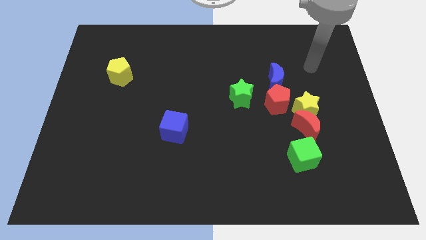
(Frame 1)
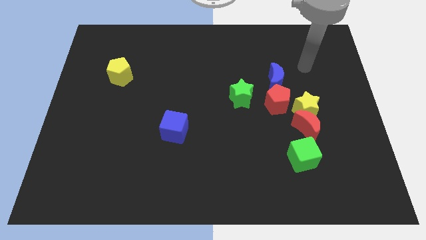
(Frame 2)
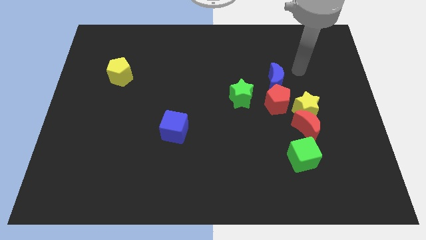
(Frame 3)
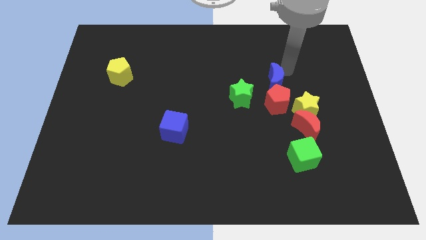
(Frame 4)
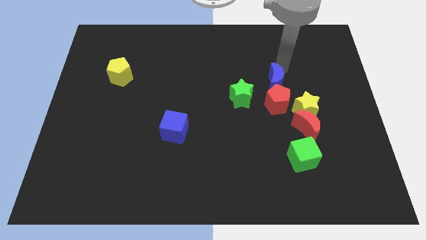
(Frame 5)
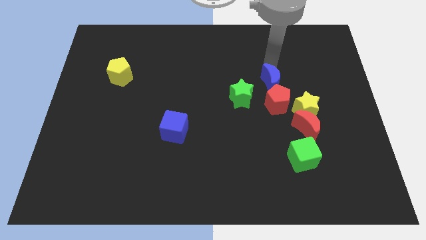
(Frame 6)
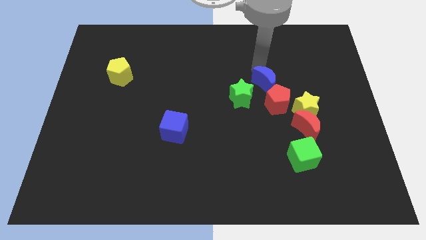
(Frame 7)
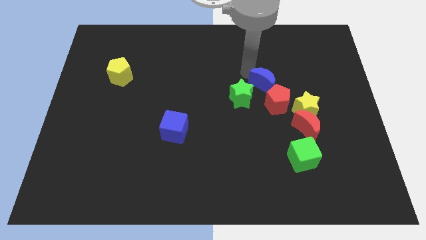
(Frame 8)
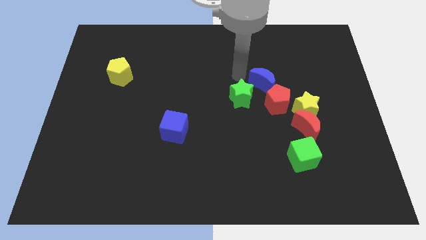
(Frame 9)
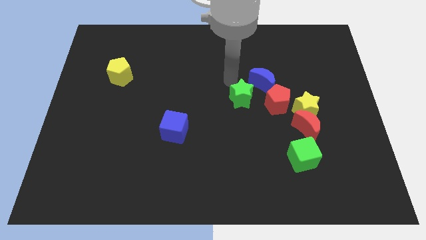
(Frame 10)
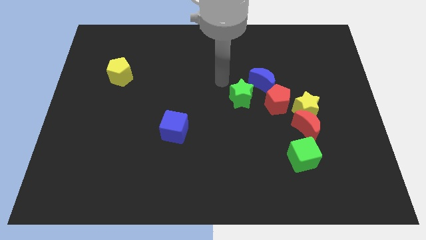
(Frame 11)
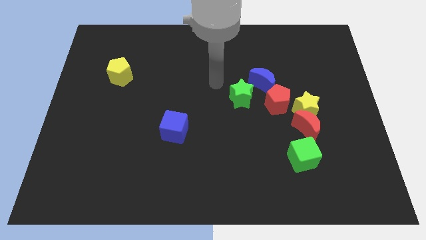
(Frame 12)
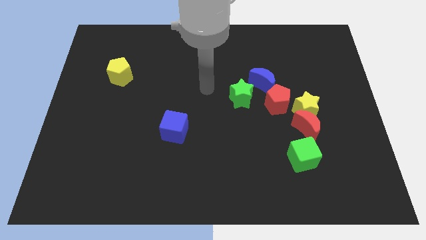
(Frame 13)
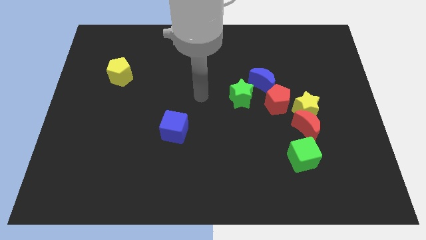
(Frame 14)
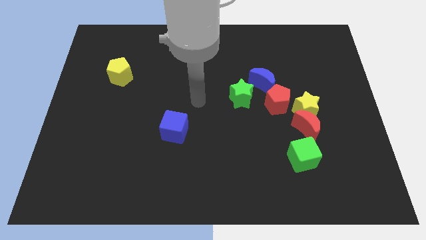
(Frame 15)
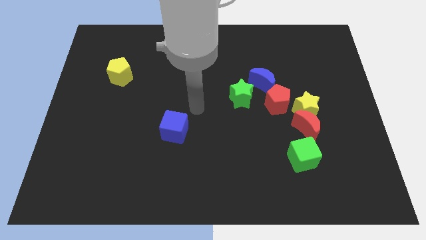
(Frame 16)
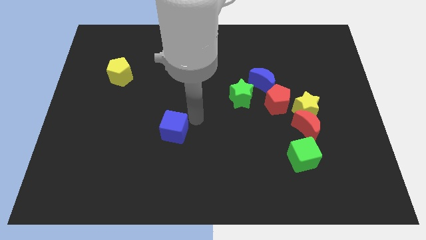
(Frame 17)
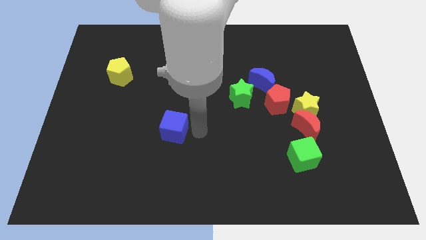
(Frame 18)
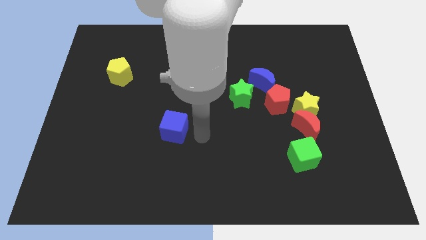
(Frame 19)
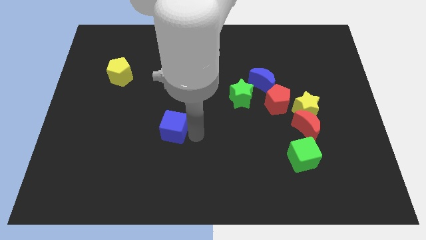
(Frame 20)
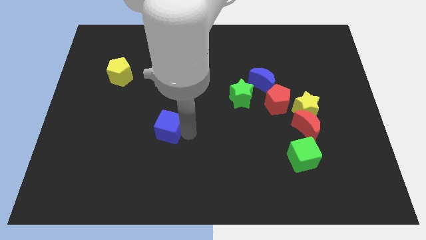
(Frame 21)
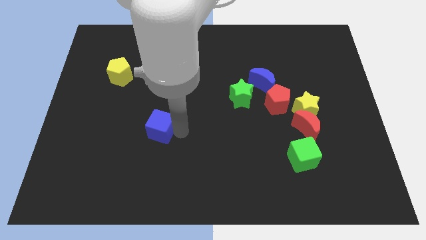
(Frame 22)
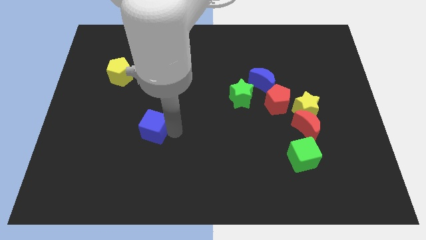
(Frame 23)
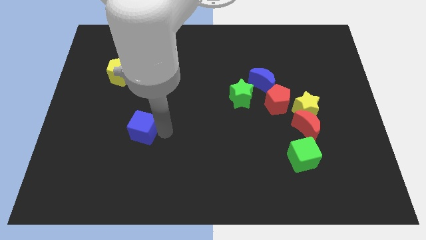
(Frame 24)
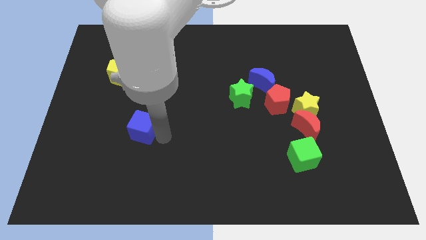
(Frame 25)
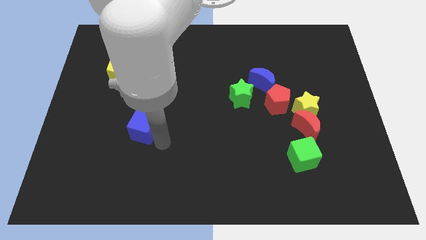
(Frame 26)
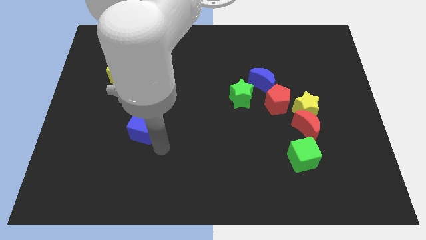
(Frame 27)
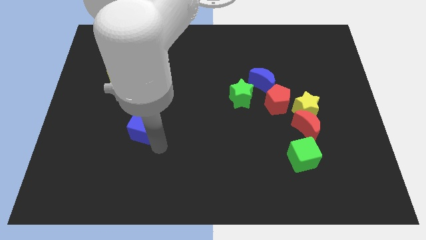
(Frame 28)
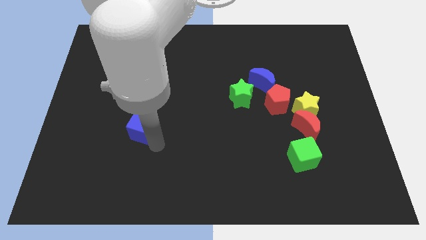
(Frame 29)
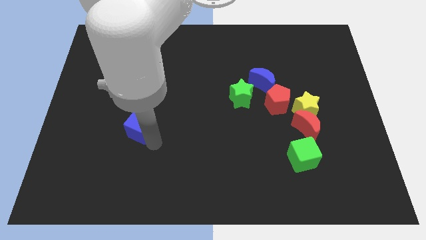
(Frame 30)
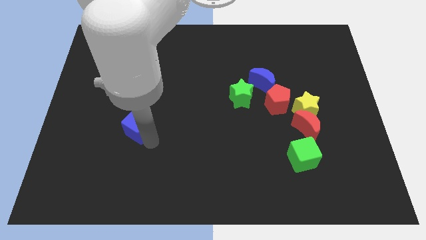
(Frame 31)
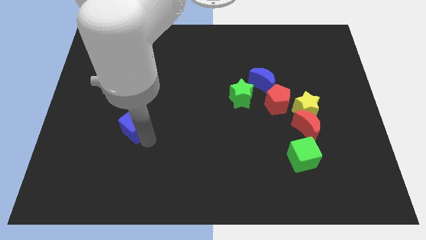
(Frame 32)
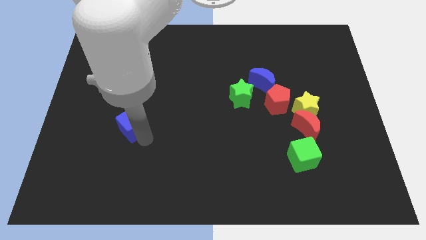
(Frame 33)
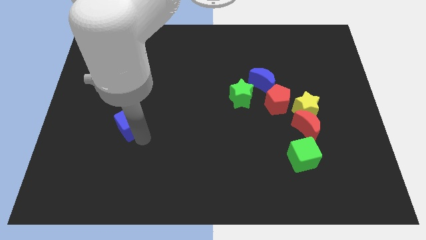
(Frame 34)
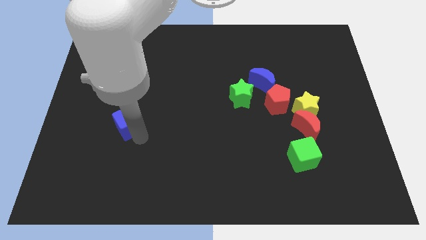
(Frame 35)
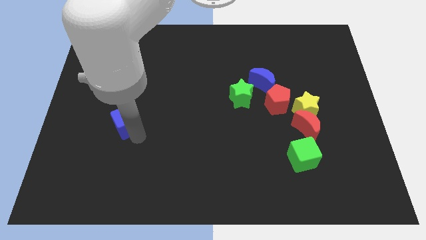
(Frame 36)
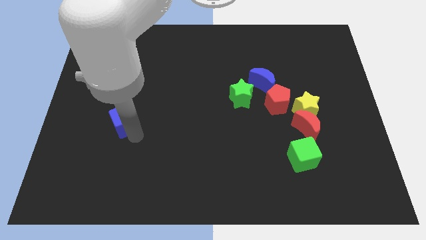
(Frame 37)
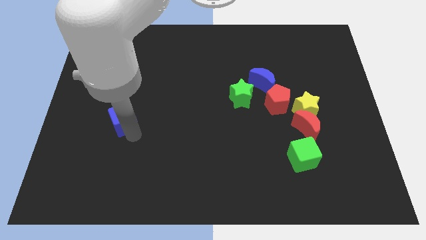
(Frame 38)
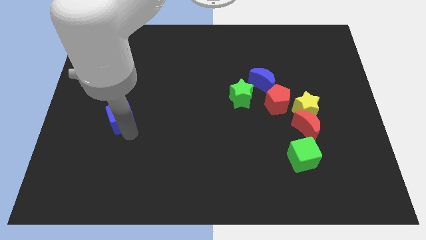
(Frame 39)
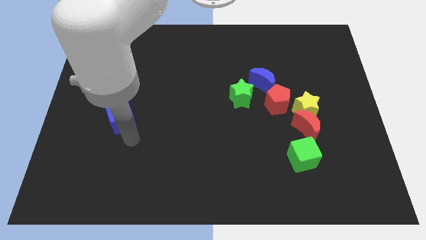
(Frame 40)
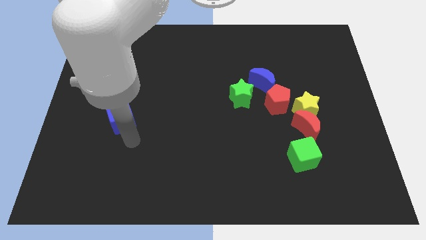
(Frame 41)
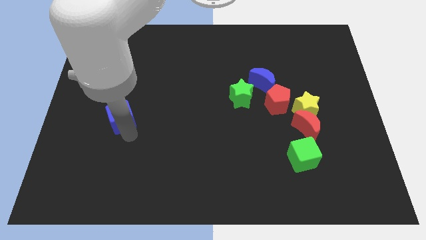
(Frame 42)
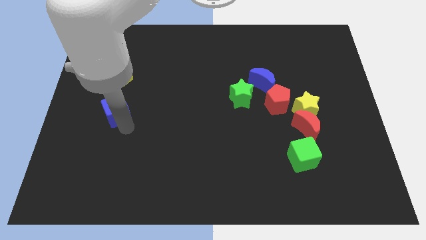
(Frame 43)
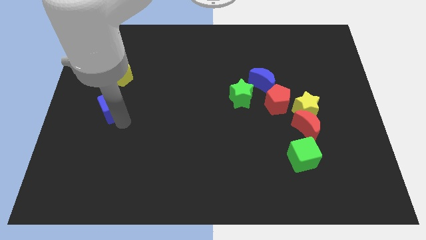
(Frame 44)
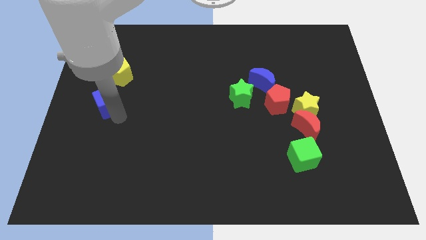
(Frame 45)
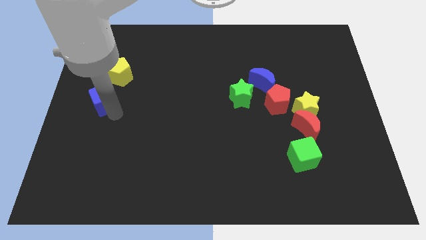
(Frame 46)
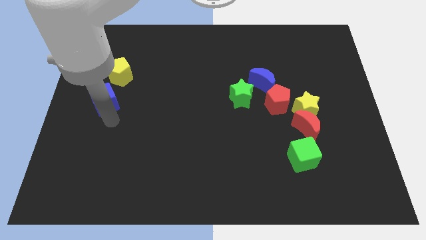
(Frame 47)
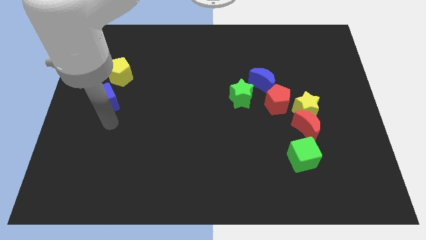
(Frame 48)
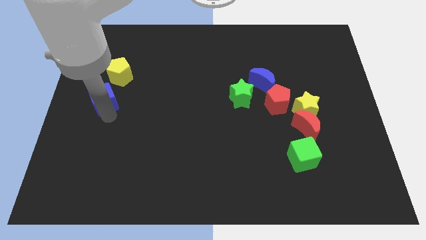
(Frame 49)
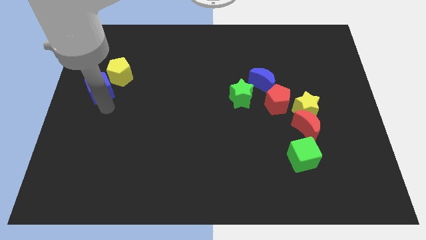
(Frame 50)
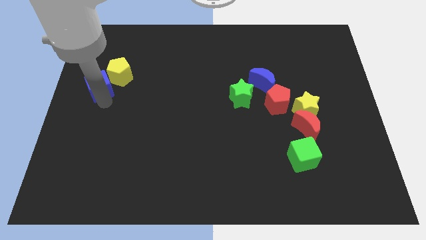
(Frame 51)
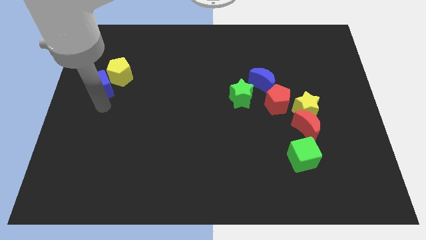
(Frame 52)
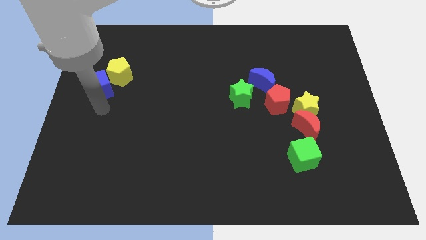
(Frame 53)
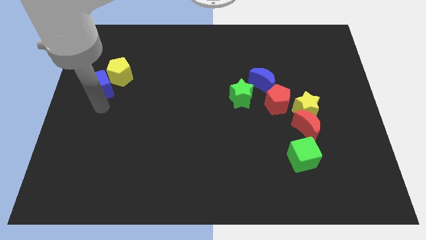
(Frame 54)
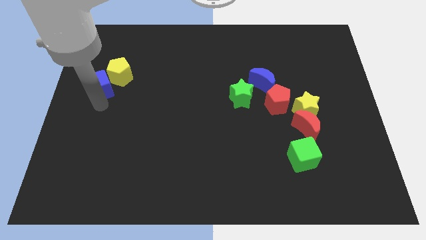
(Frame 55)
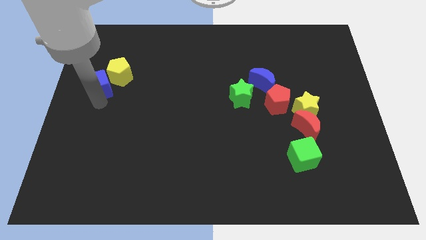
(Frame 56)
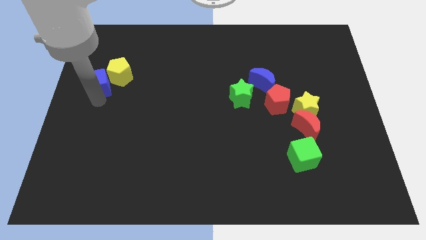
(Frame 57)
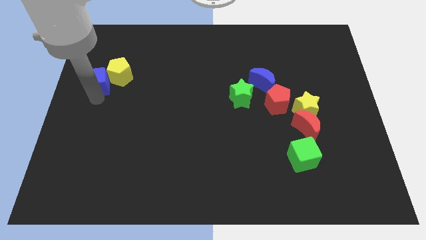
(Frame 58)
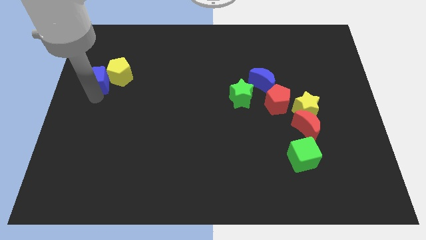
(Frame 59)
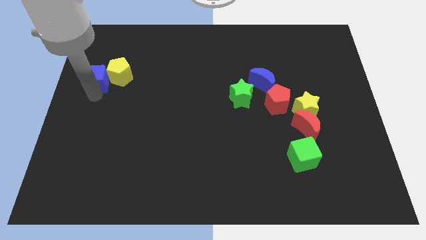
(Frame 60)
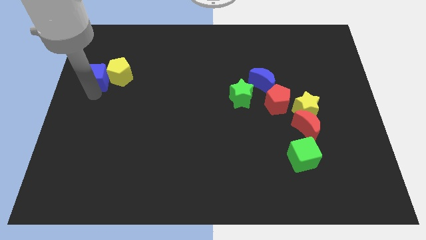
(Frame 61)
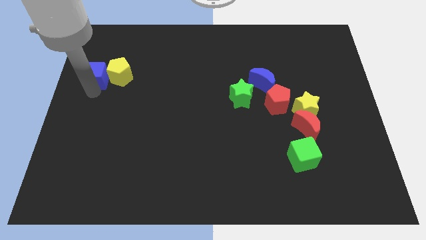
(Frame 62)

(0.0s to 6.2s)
slide the blue cube to the top left side of the yellow pentagon

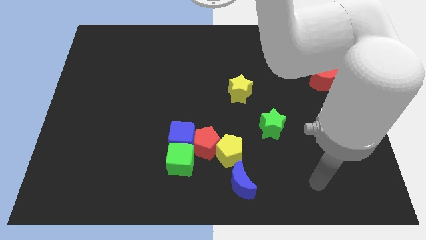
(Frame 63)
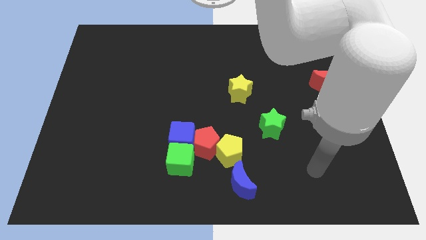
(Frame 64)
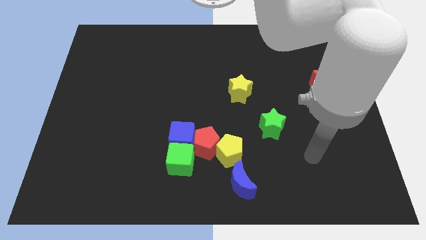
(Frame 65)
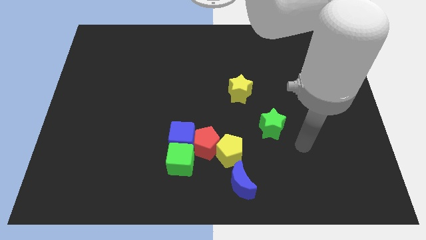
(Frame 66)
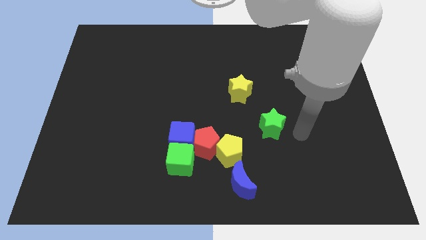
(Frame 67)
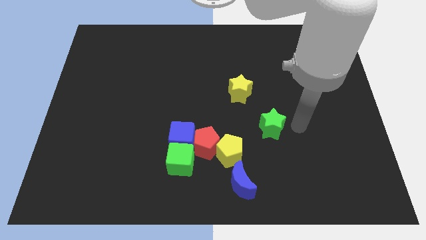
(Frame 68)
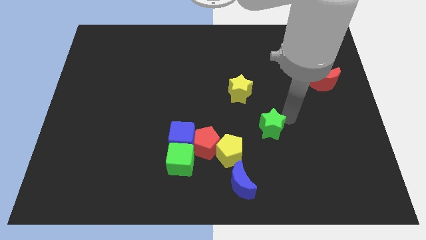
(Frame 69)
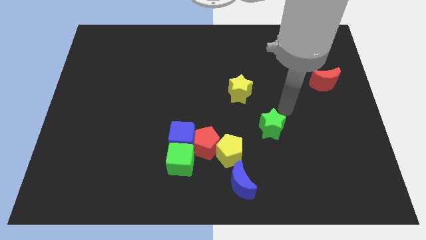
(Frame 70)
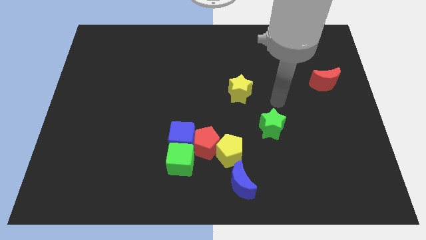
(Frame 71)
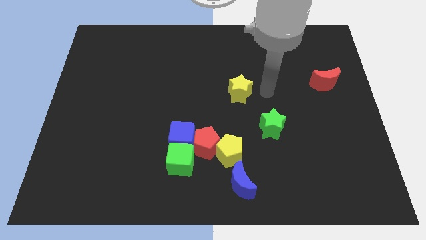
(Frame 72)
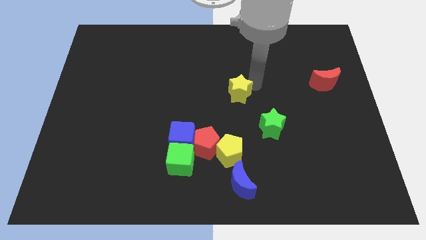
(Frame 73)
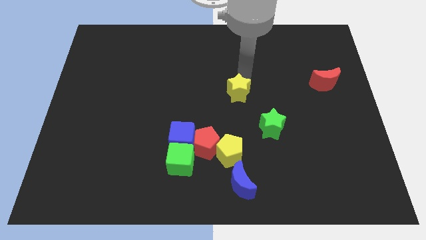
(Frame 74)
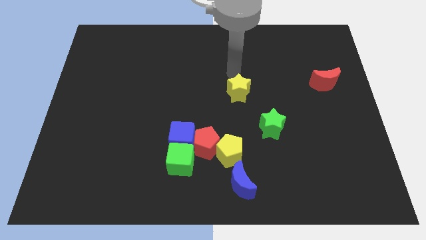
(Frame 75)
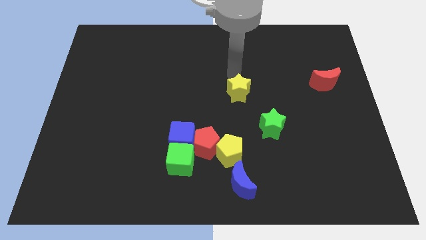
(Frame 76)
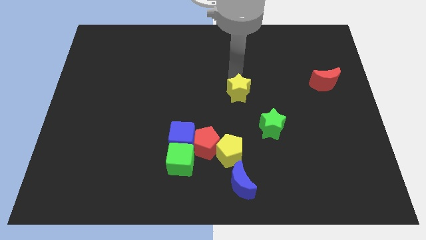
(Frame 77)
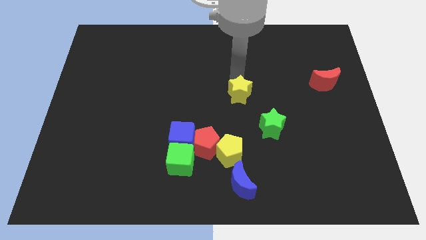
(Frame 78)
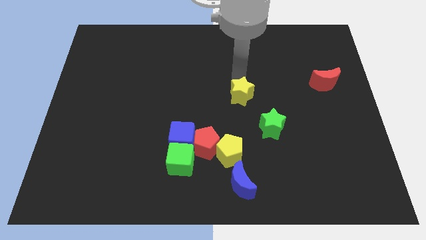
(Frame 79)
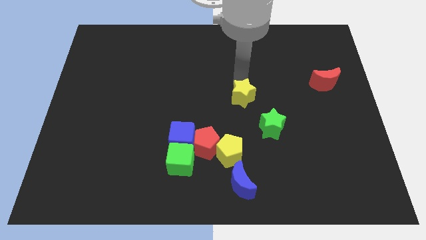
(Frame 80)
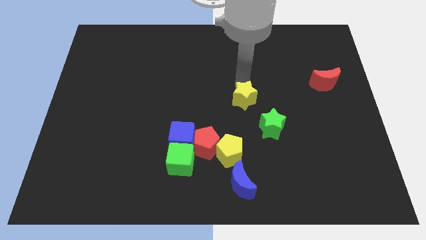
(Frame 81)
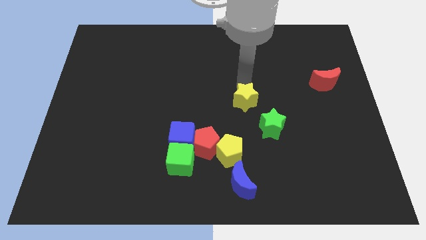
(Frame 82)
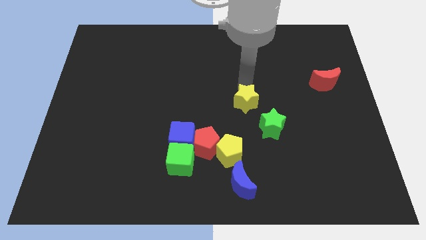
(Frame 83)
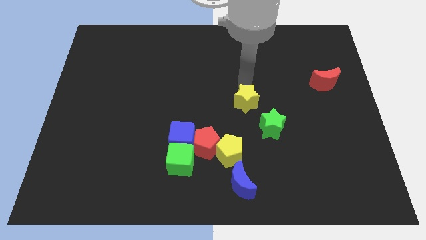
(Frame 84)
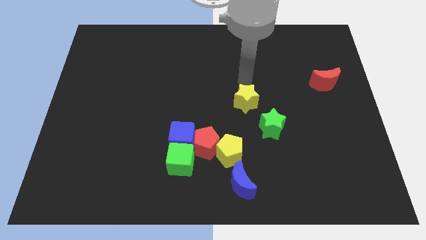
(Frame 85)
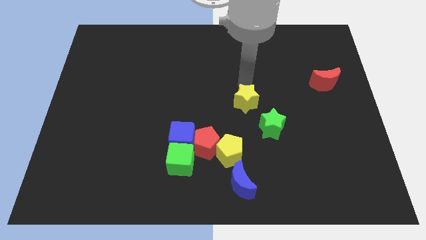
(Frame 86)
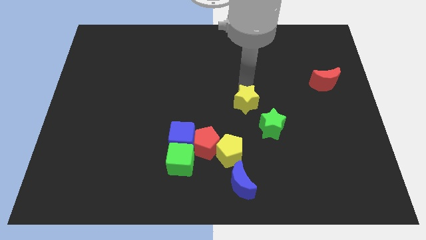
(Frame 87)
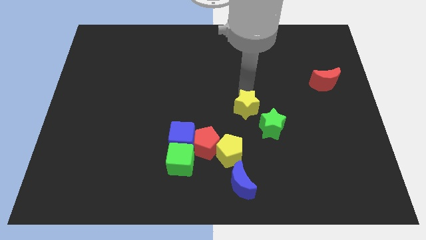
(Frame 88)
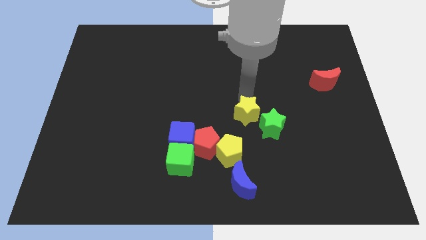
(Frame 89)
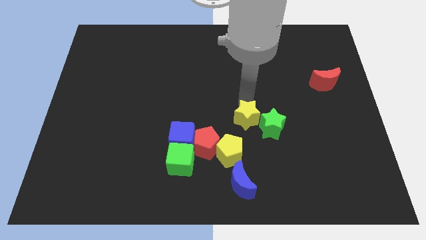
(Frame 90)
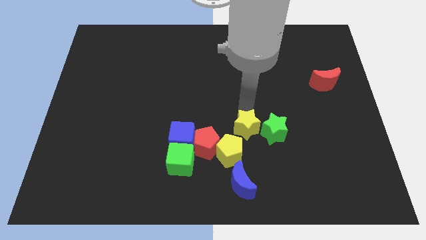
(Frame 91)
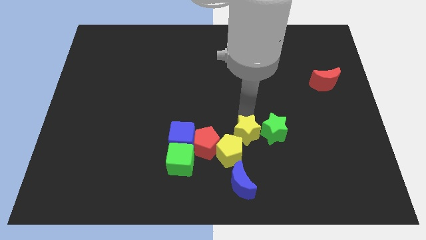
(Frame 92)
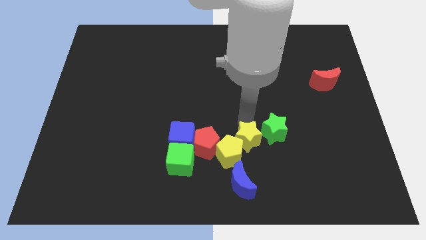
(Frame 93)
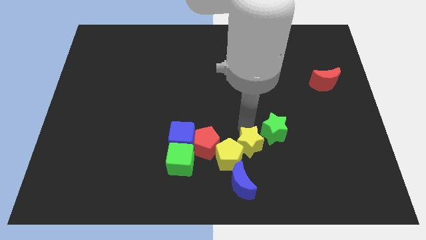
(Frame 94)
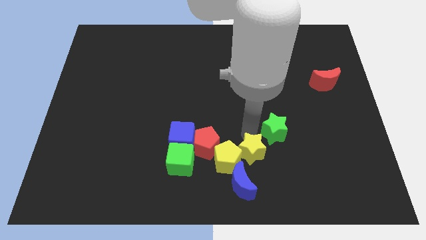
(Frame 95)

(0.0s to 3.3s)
push the yellow star just right of the green cube
